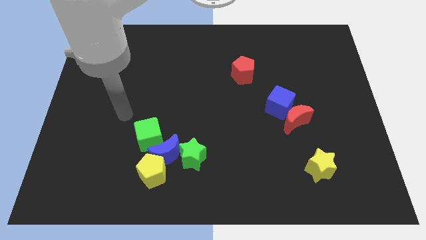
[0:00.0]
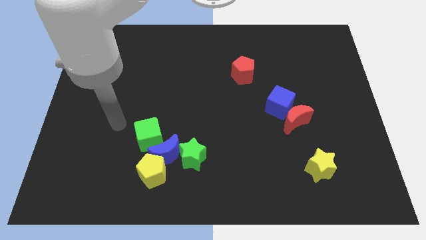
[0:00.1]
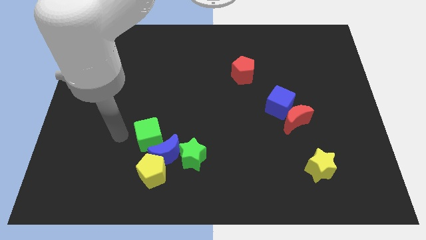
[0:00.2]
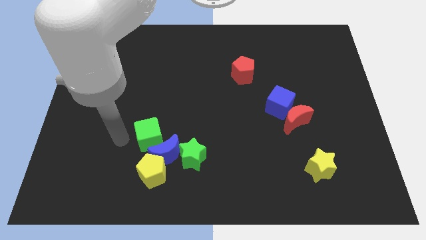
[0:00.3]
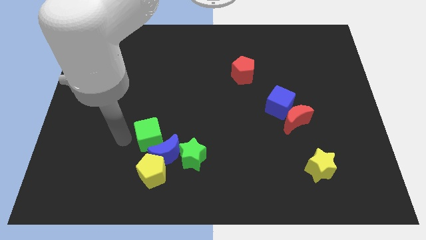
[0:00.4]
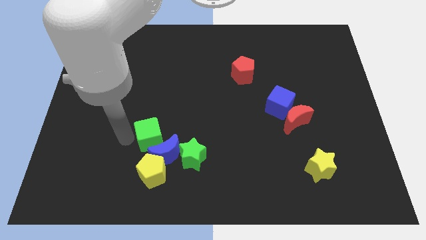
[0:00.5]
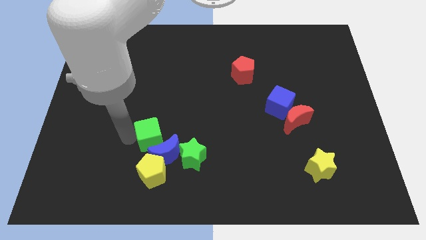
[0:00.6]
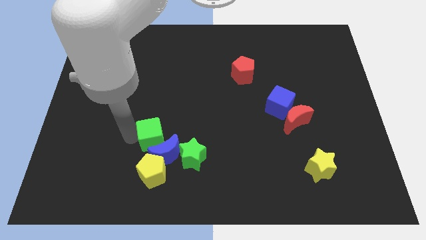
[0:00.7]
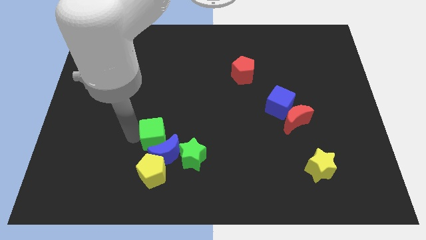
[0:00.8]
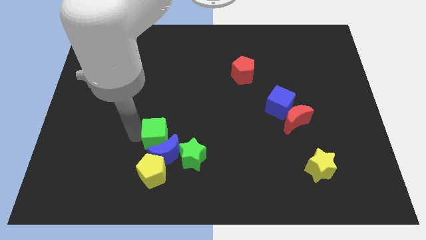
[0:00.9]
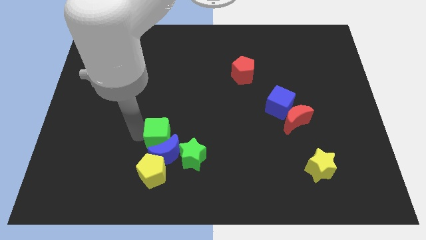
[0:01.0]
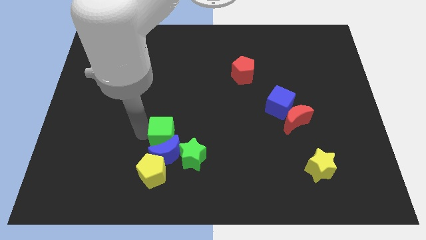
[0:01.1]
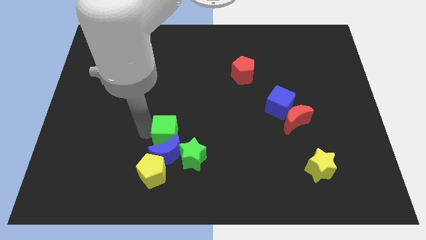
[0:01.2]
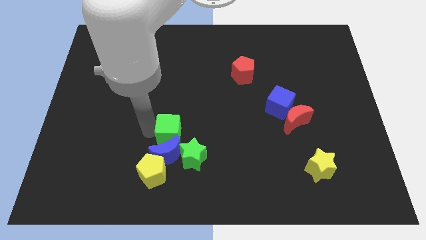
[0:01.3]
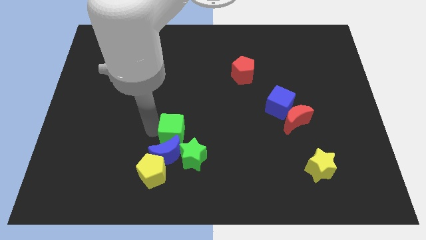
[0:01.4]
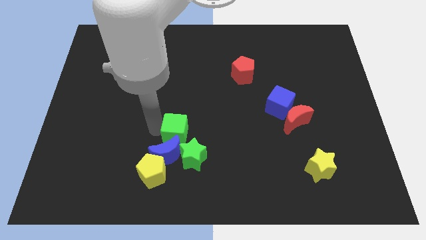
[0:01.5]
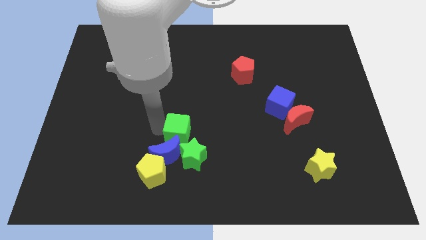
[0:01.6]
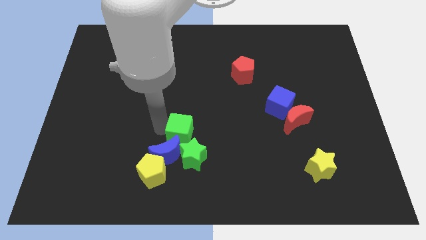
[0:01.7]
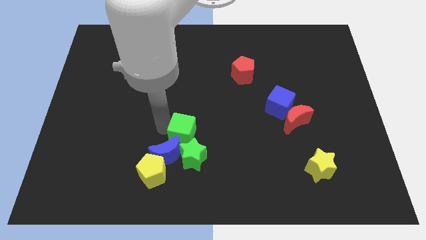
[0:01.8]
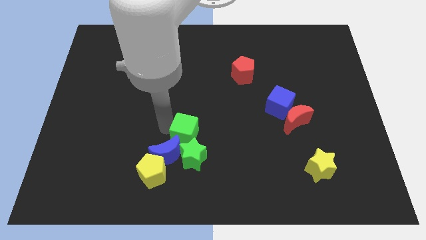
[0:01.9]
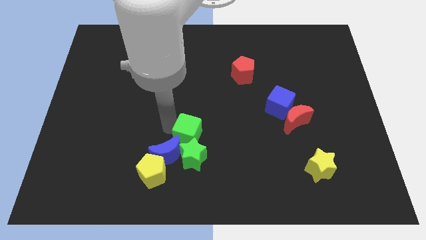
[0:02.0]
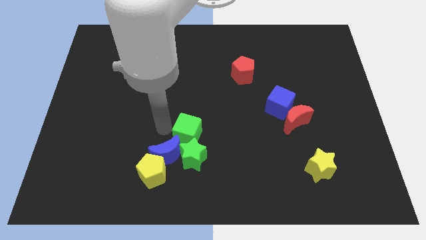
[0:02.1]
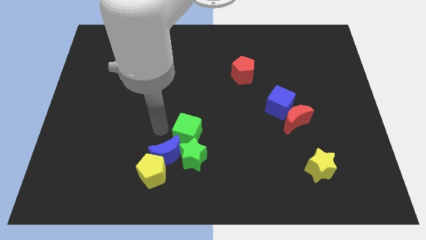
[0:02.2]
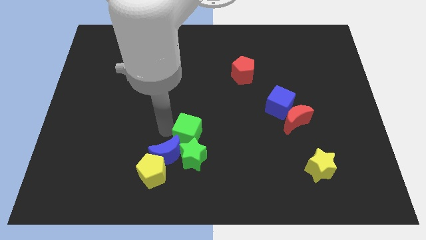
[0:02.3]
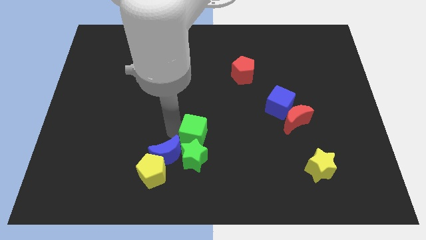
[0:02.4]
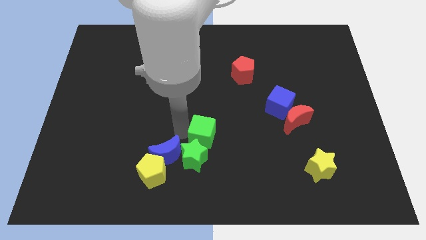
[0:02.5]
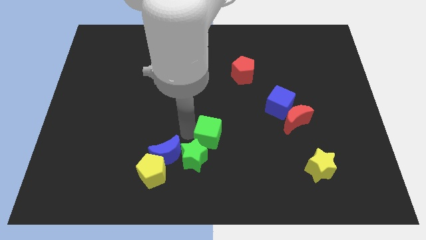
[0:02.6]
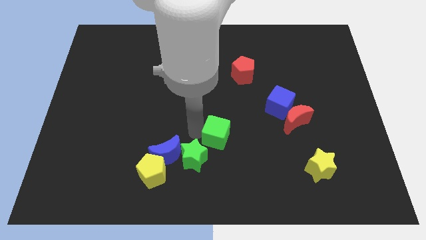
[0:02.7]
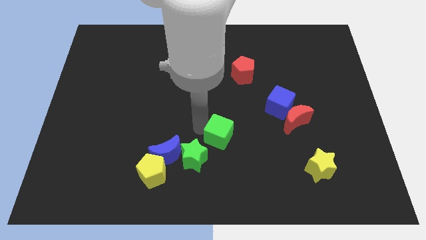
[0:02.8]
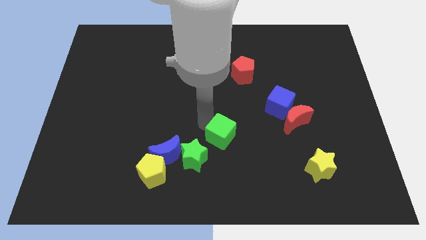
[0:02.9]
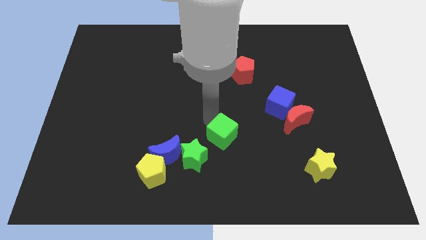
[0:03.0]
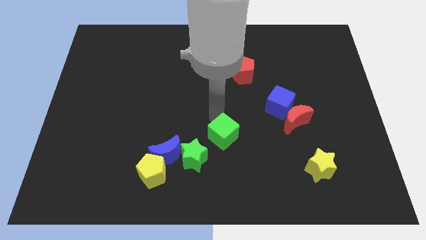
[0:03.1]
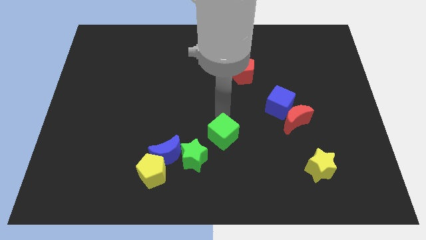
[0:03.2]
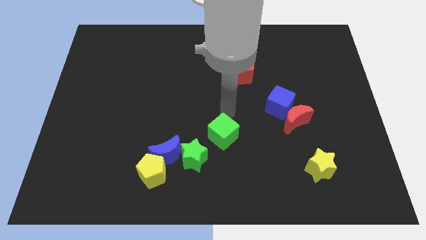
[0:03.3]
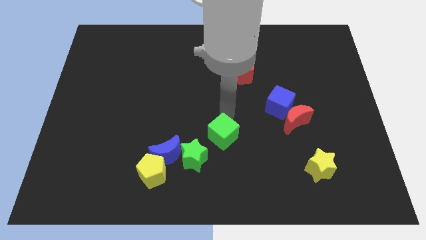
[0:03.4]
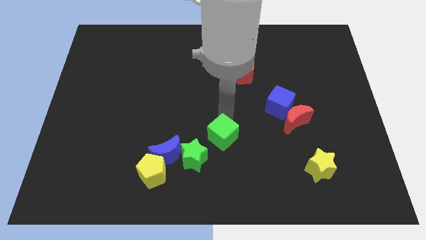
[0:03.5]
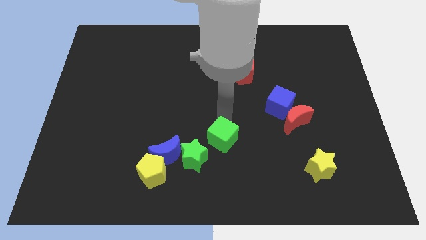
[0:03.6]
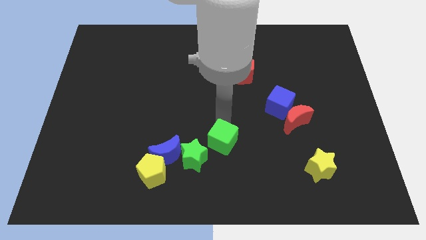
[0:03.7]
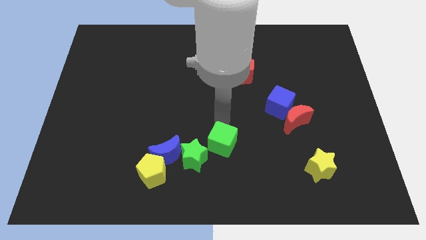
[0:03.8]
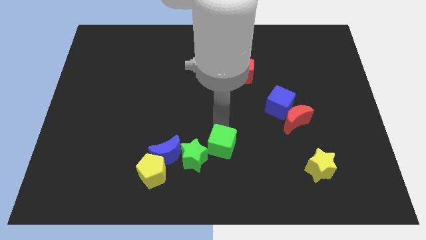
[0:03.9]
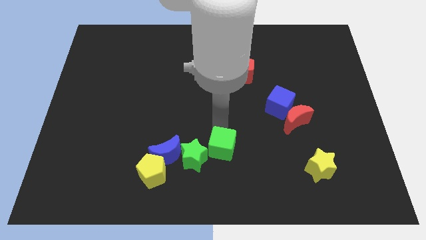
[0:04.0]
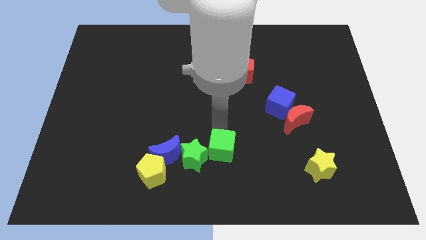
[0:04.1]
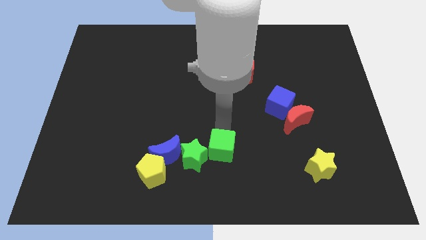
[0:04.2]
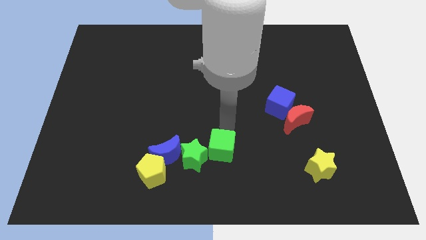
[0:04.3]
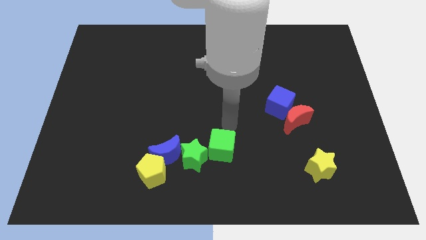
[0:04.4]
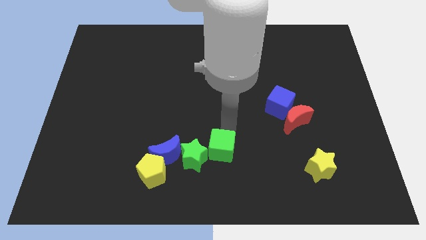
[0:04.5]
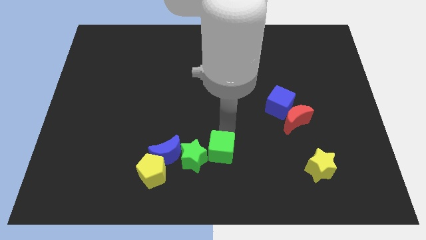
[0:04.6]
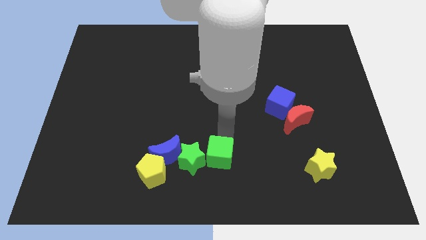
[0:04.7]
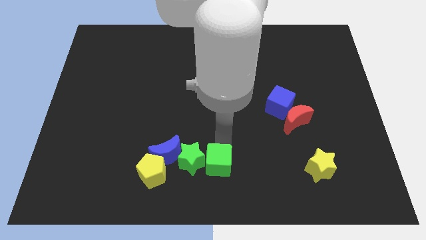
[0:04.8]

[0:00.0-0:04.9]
push the green cube to the bottom right of the green star

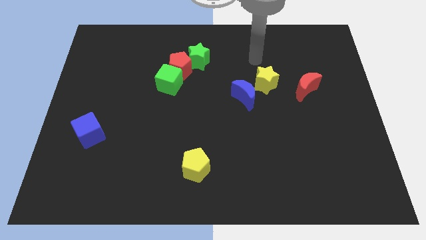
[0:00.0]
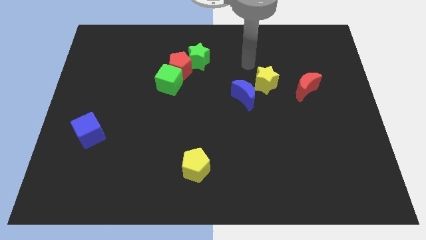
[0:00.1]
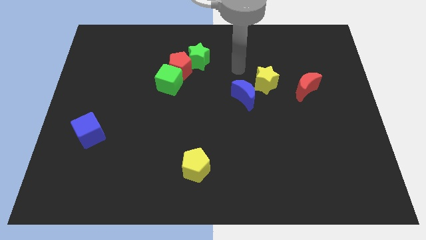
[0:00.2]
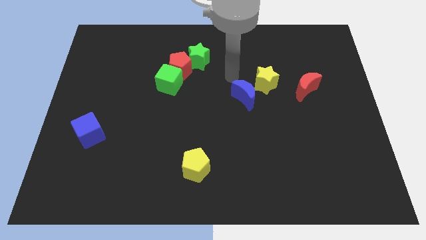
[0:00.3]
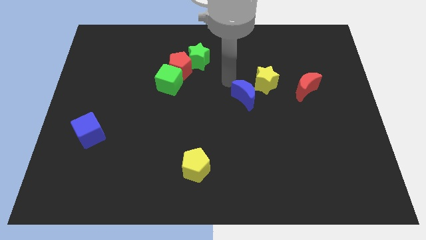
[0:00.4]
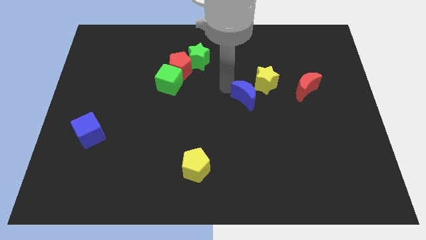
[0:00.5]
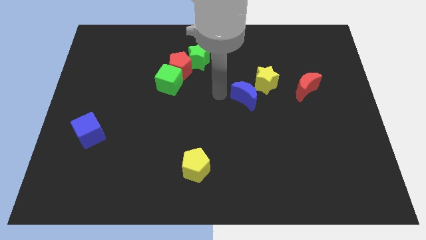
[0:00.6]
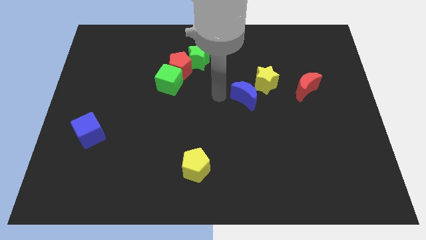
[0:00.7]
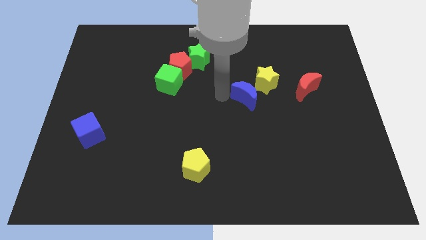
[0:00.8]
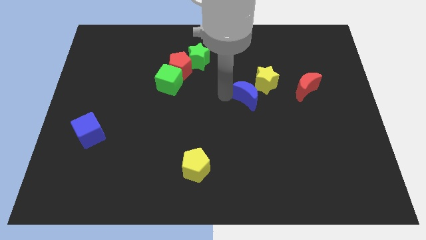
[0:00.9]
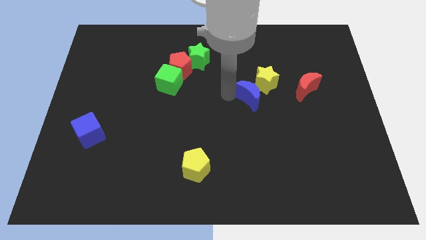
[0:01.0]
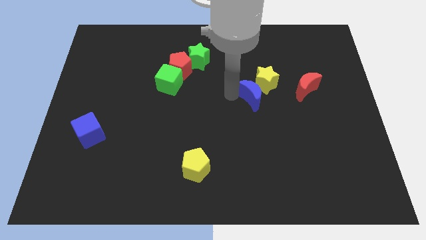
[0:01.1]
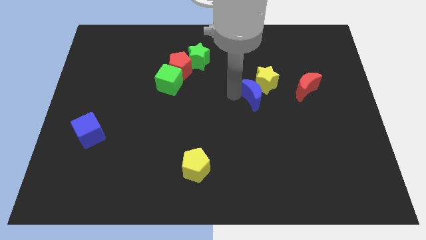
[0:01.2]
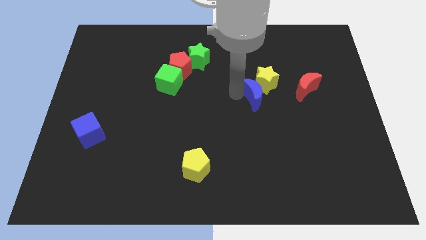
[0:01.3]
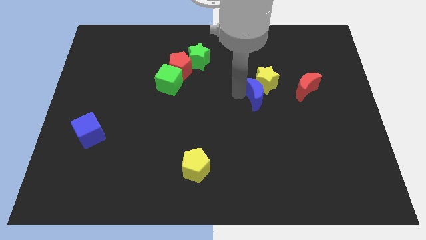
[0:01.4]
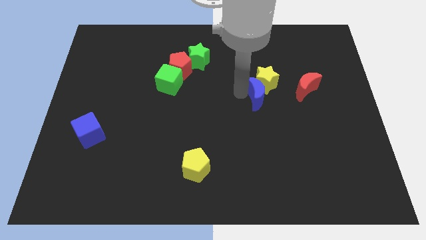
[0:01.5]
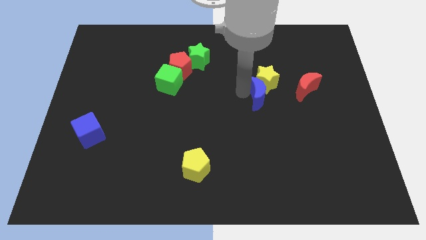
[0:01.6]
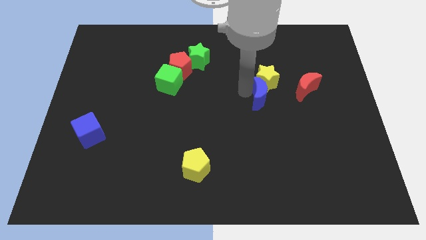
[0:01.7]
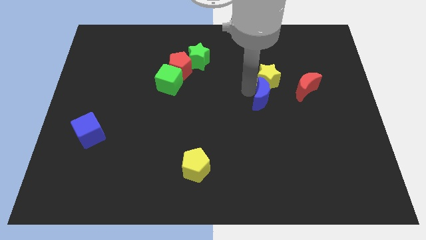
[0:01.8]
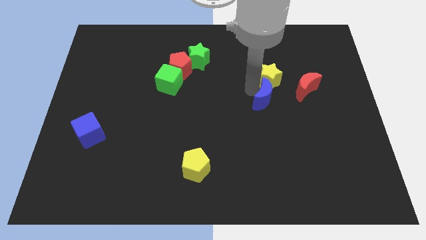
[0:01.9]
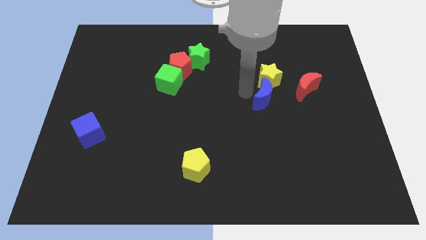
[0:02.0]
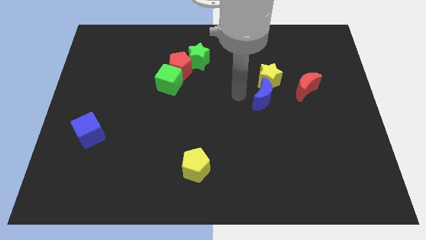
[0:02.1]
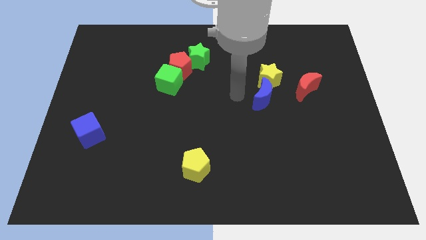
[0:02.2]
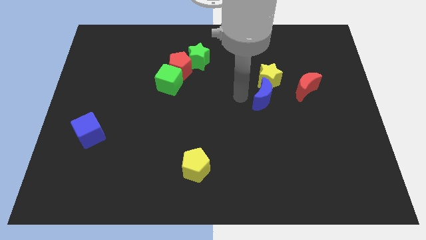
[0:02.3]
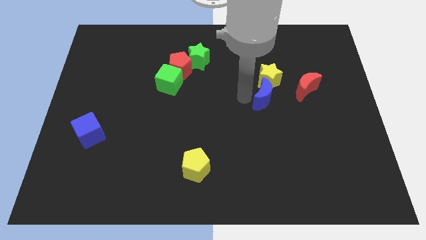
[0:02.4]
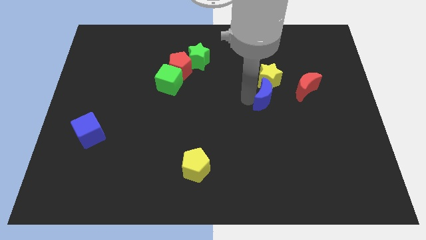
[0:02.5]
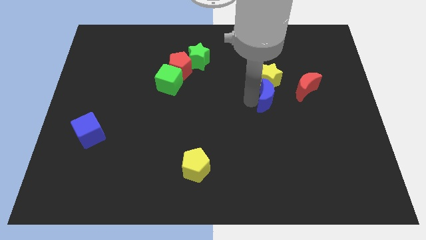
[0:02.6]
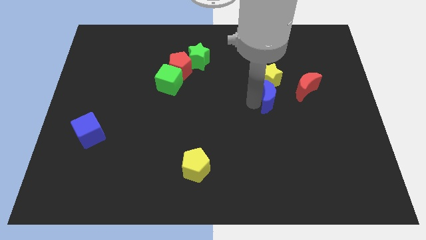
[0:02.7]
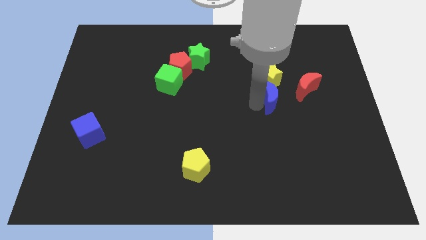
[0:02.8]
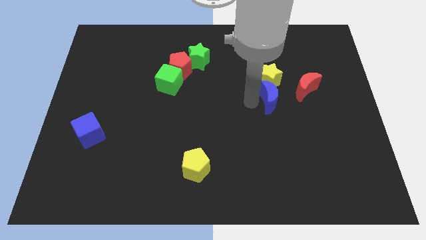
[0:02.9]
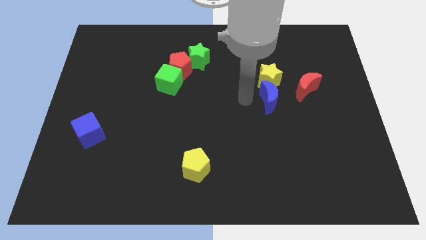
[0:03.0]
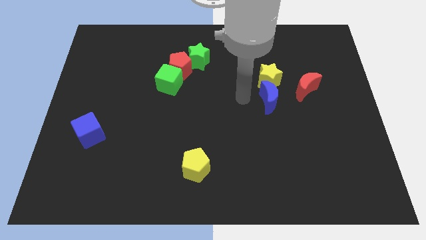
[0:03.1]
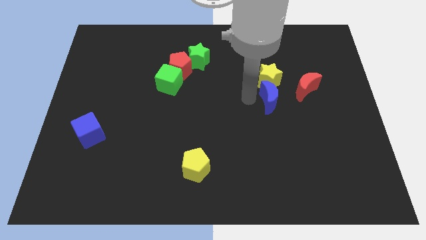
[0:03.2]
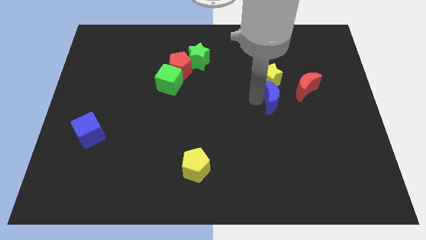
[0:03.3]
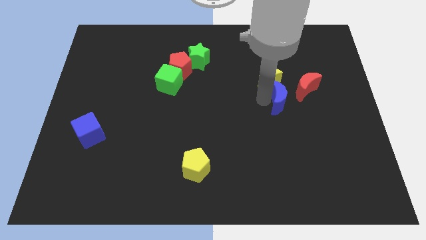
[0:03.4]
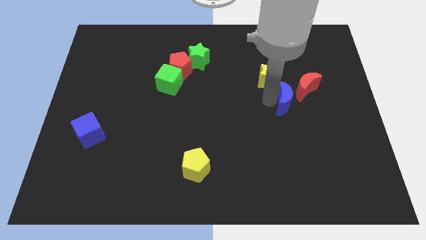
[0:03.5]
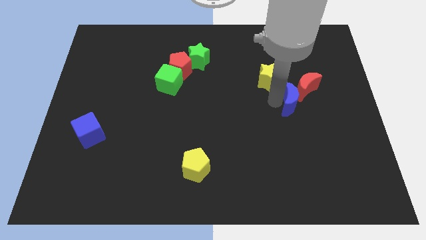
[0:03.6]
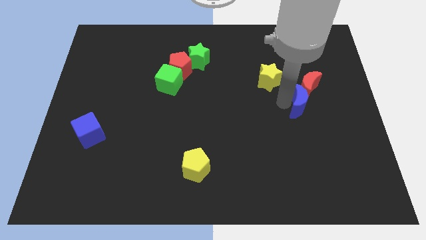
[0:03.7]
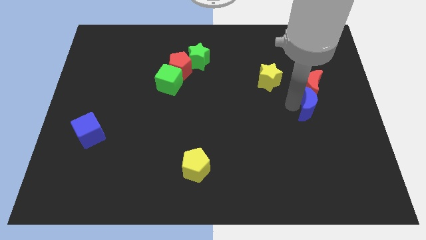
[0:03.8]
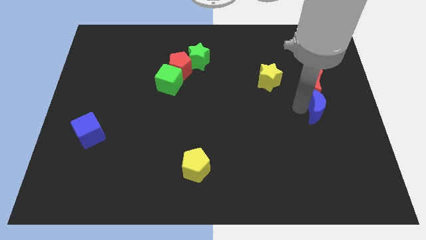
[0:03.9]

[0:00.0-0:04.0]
slide the blue moon to the bottom right side of the red moon
